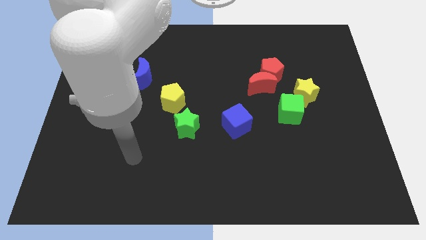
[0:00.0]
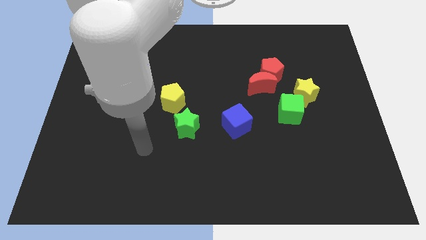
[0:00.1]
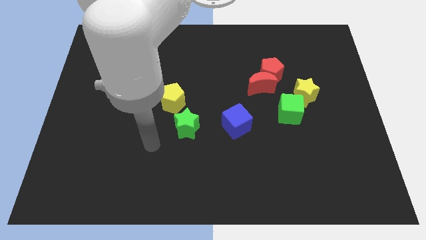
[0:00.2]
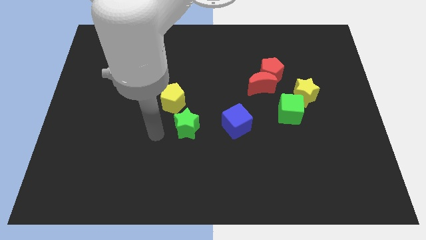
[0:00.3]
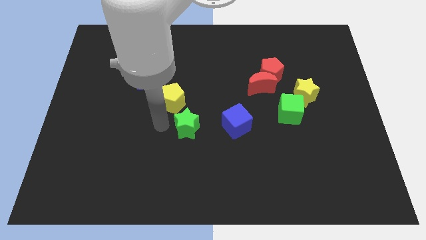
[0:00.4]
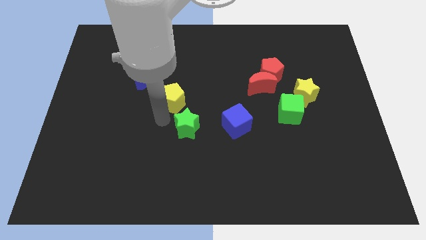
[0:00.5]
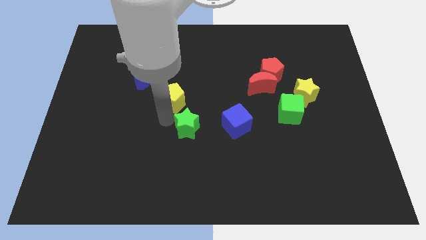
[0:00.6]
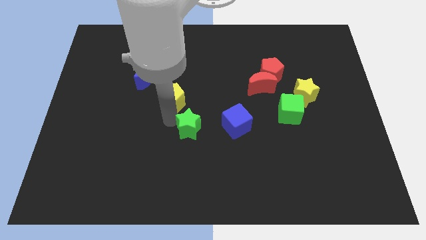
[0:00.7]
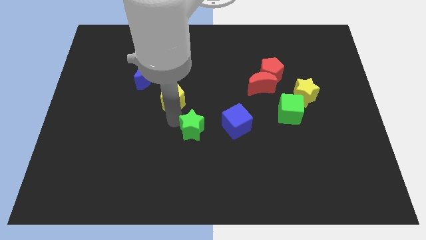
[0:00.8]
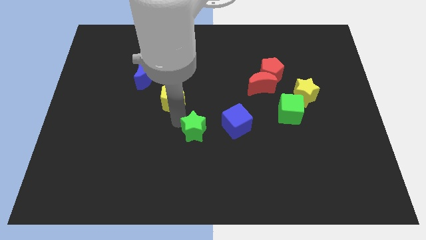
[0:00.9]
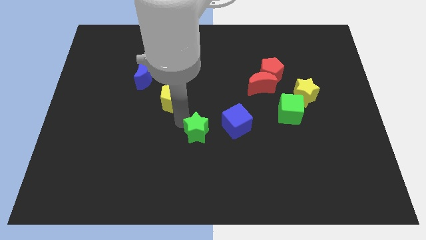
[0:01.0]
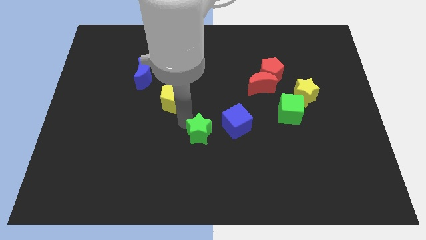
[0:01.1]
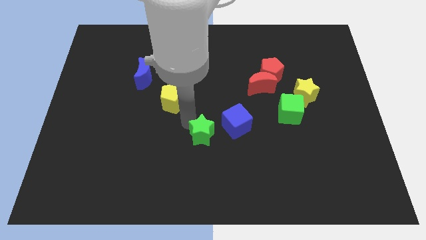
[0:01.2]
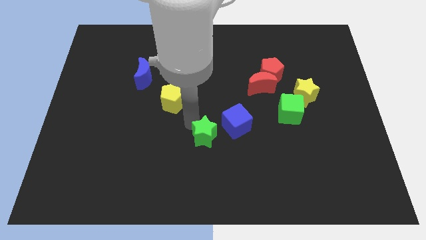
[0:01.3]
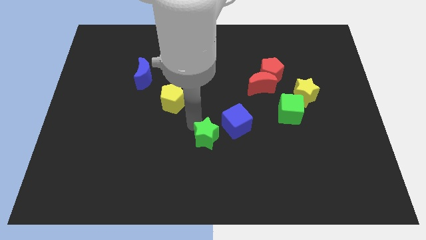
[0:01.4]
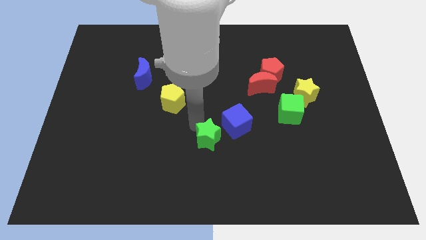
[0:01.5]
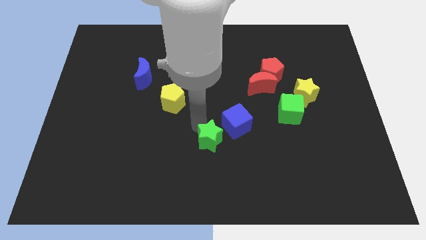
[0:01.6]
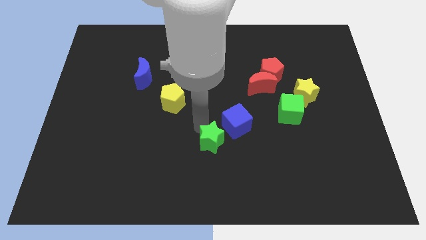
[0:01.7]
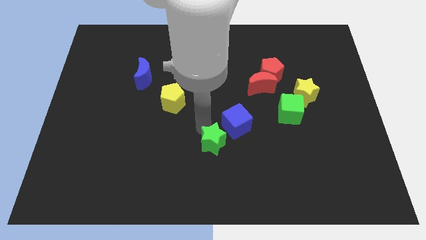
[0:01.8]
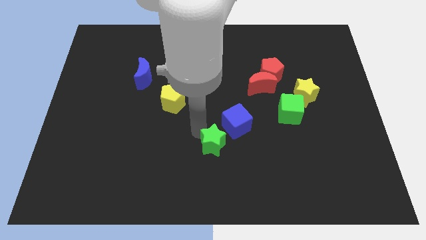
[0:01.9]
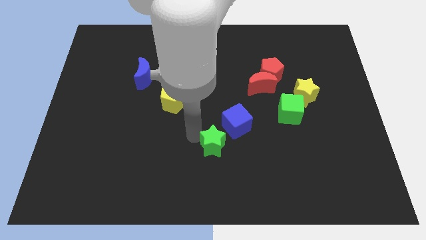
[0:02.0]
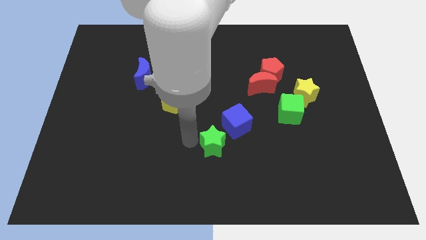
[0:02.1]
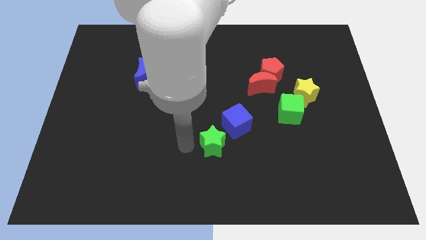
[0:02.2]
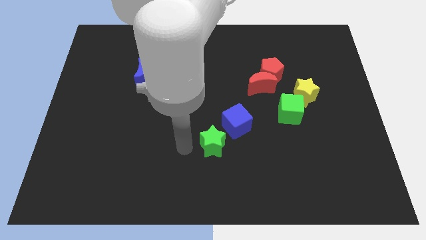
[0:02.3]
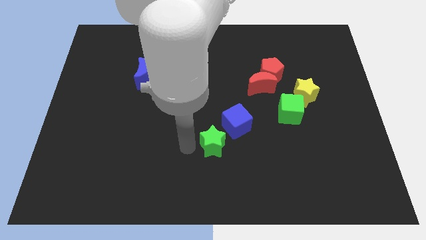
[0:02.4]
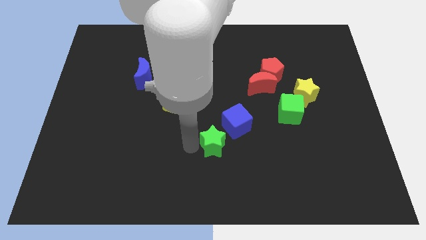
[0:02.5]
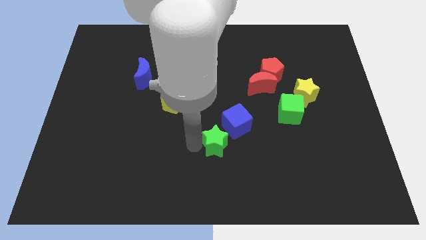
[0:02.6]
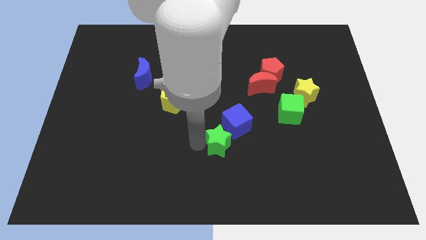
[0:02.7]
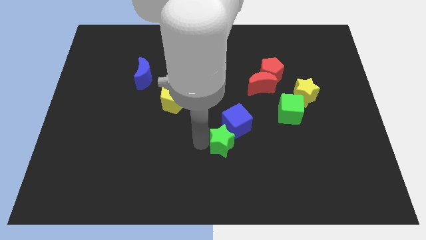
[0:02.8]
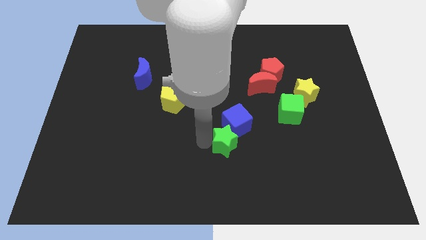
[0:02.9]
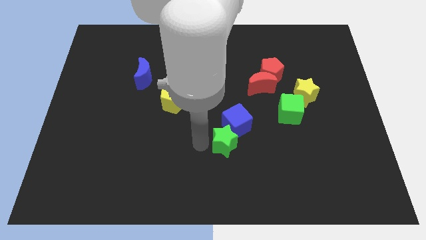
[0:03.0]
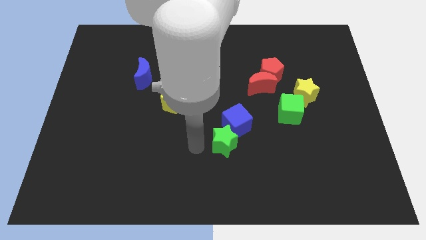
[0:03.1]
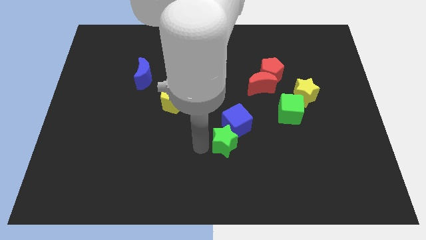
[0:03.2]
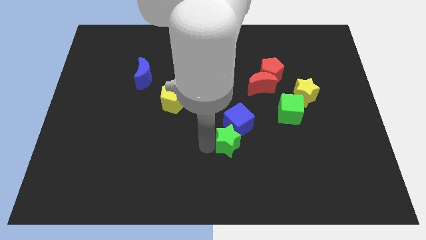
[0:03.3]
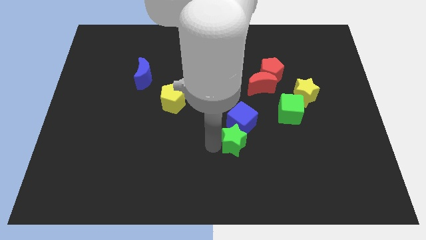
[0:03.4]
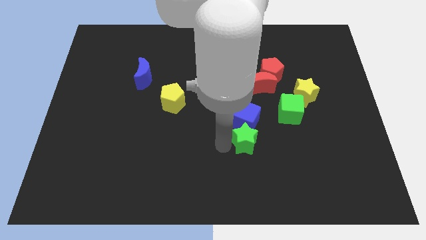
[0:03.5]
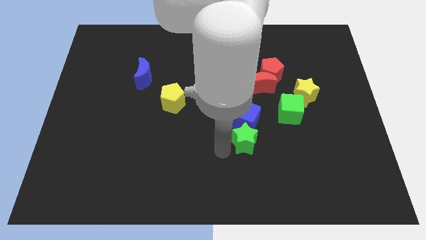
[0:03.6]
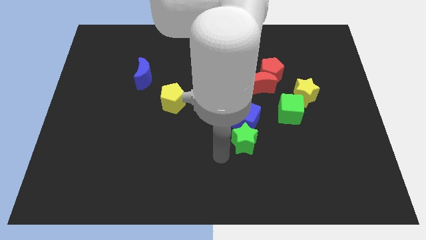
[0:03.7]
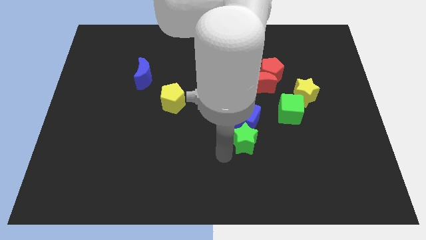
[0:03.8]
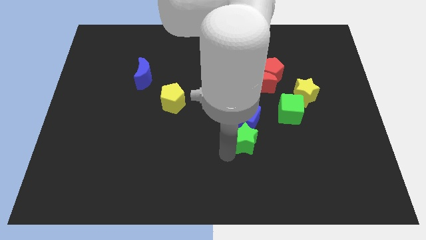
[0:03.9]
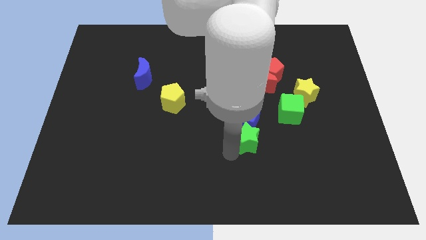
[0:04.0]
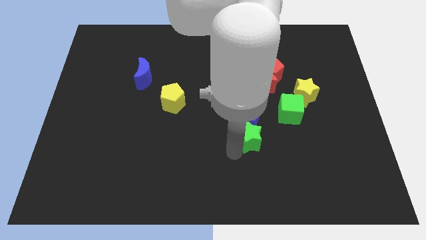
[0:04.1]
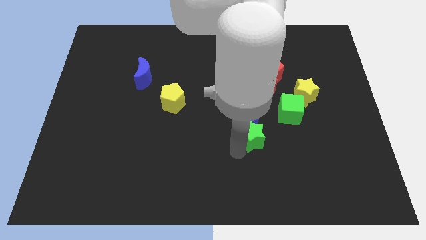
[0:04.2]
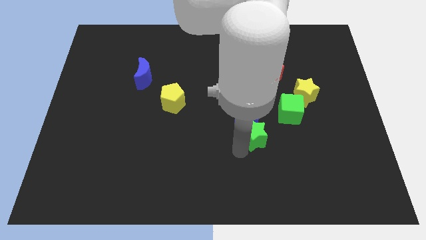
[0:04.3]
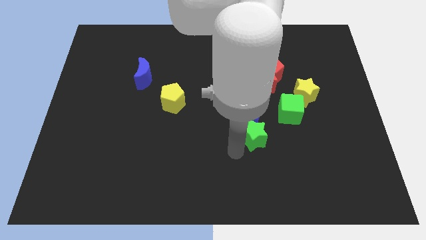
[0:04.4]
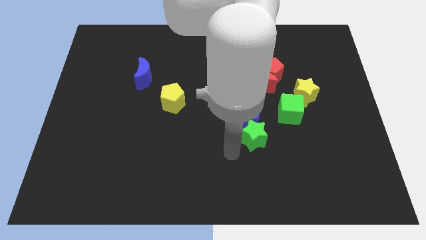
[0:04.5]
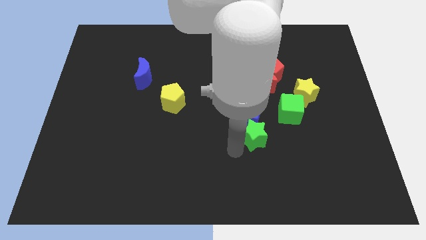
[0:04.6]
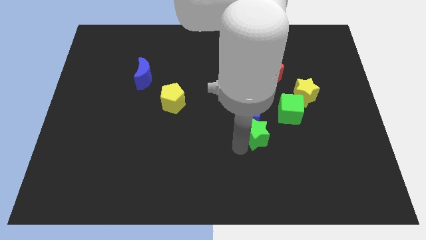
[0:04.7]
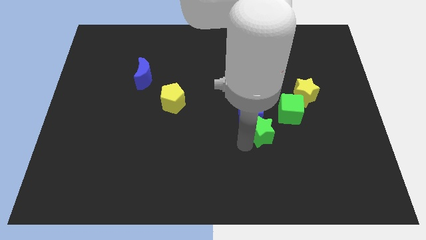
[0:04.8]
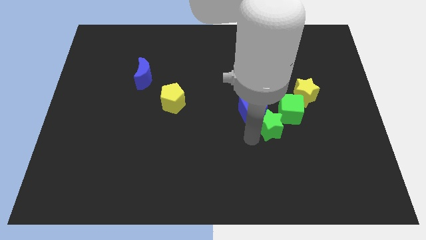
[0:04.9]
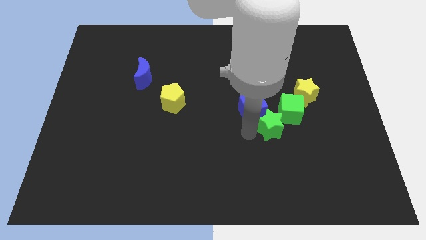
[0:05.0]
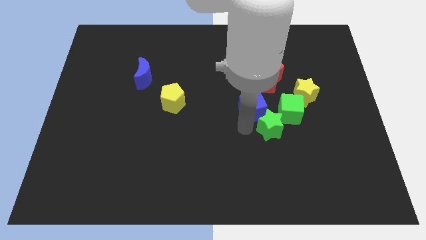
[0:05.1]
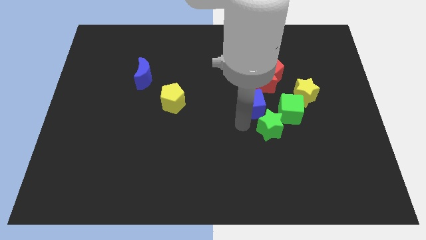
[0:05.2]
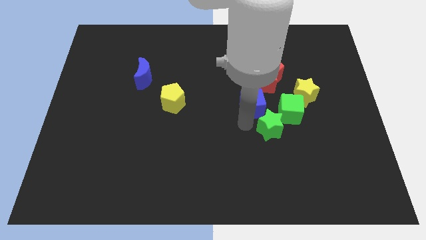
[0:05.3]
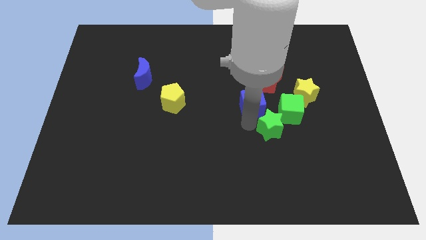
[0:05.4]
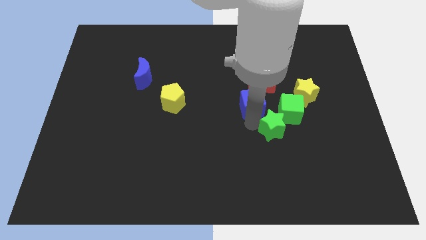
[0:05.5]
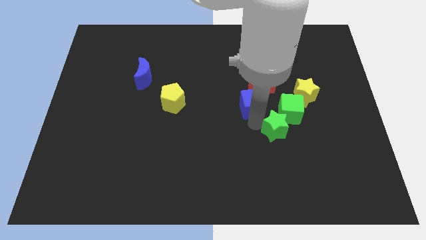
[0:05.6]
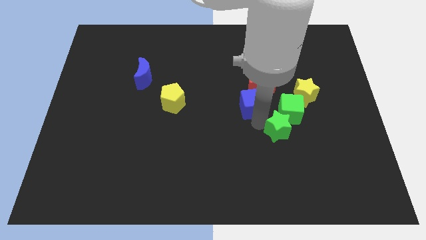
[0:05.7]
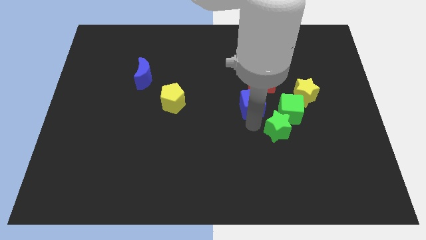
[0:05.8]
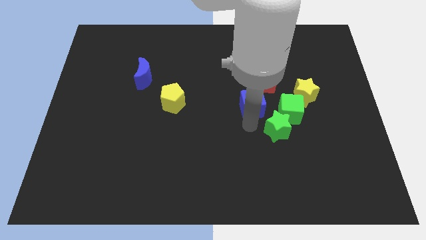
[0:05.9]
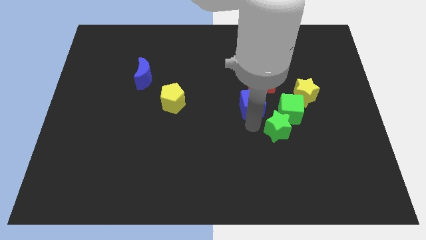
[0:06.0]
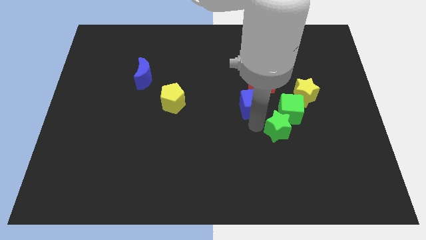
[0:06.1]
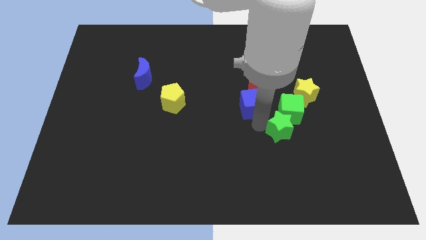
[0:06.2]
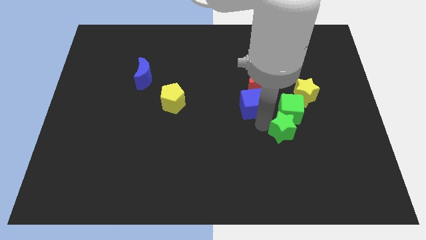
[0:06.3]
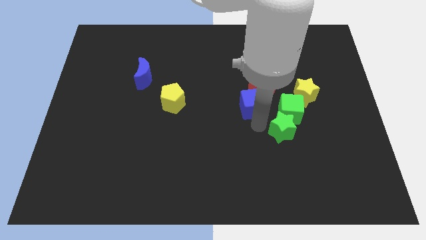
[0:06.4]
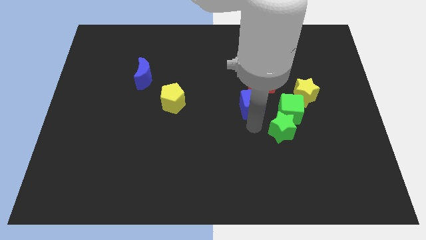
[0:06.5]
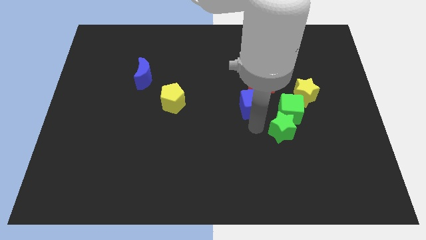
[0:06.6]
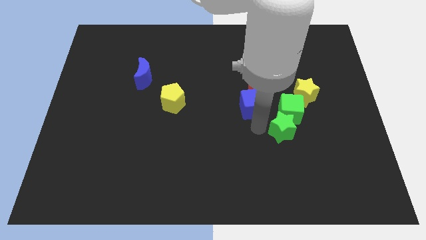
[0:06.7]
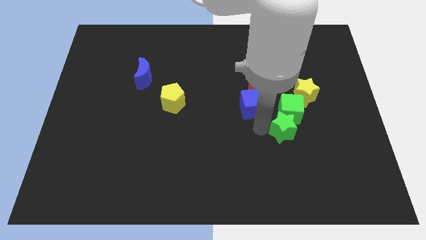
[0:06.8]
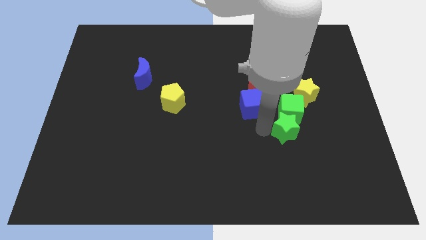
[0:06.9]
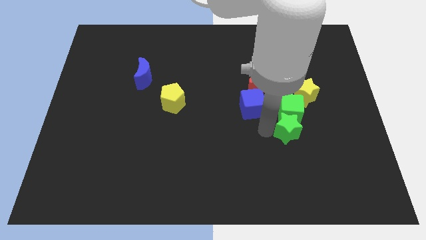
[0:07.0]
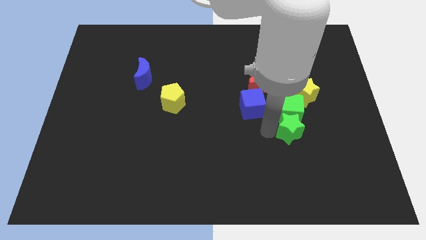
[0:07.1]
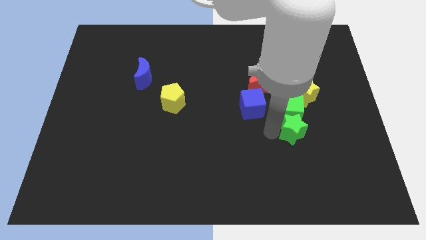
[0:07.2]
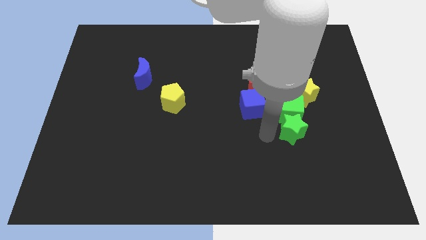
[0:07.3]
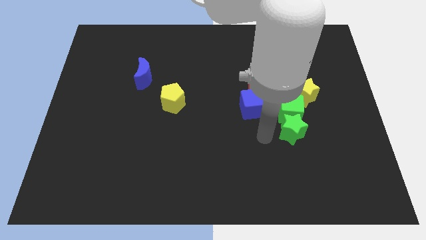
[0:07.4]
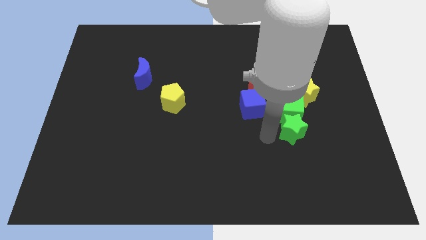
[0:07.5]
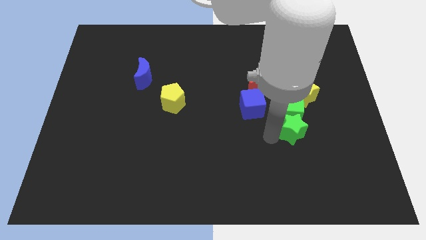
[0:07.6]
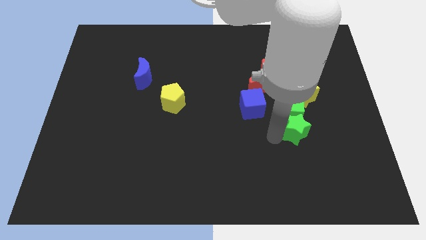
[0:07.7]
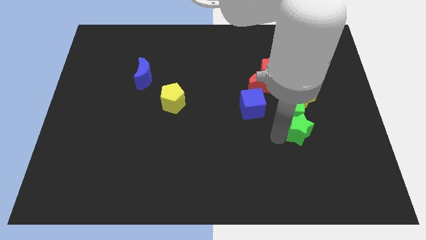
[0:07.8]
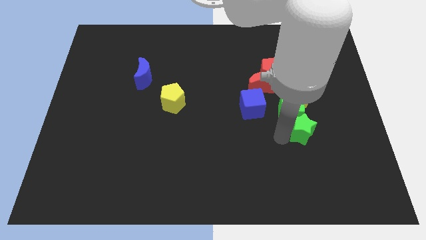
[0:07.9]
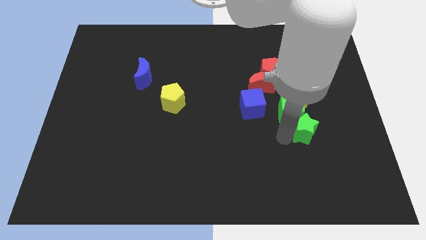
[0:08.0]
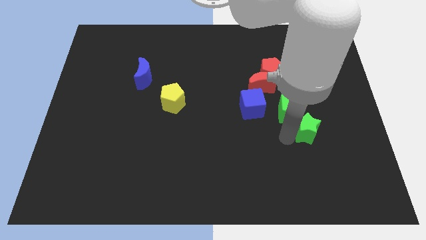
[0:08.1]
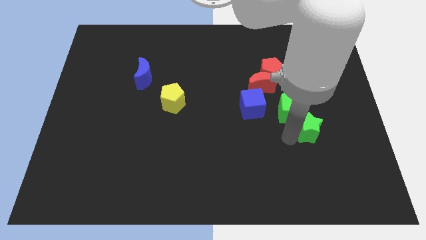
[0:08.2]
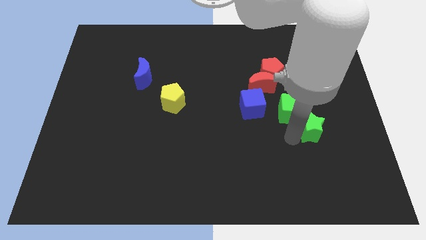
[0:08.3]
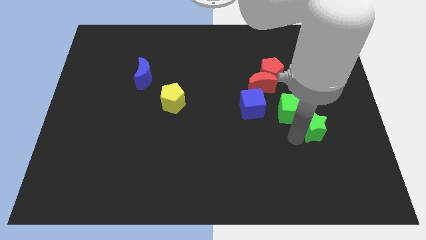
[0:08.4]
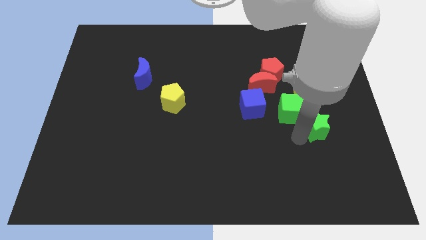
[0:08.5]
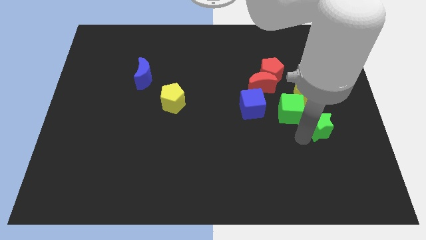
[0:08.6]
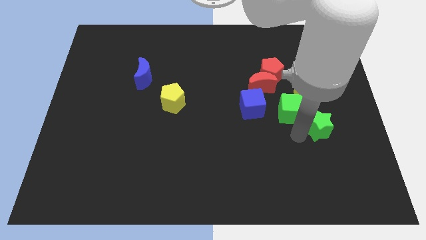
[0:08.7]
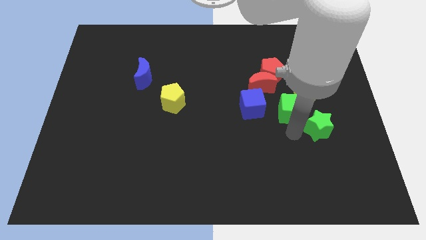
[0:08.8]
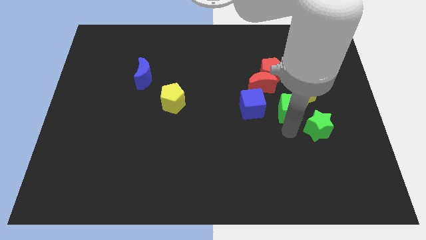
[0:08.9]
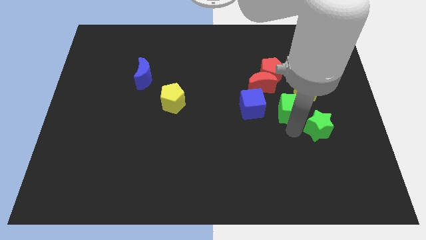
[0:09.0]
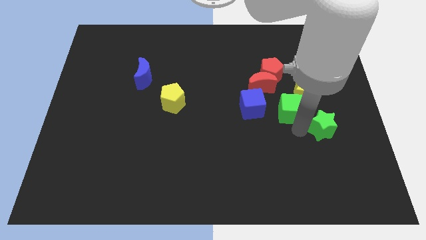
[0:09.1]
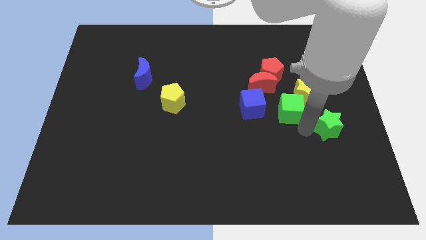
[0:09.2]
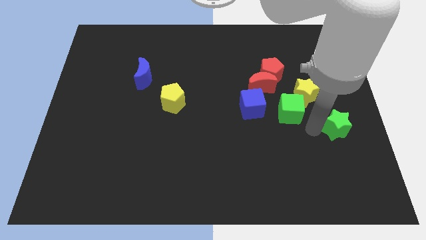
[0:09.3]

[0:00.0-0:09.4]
move the green star to the right side
